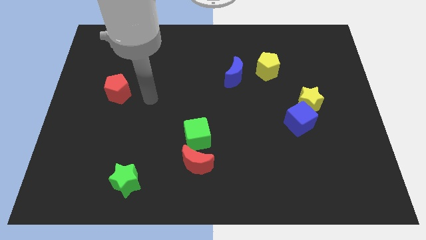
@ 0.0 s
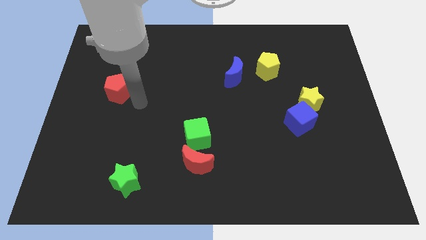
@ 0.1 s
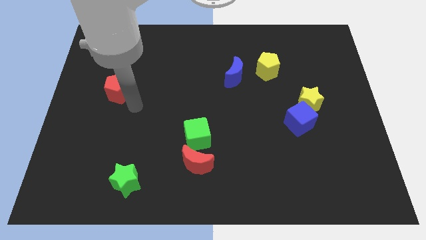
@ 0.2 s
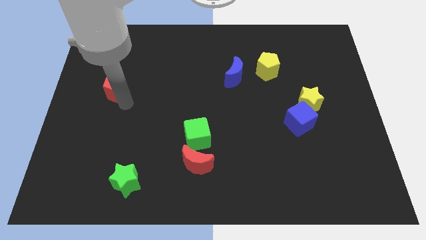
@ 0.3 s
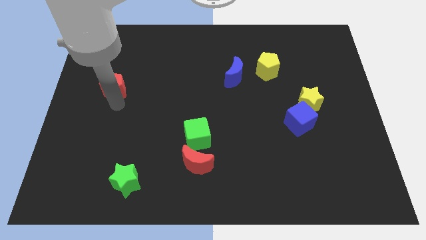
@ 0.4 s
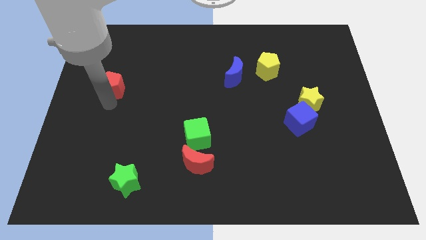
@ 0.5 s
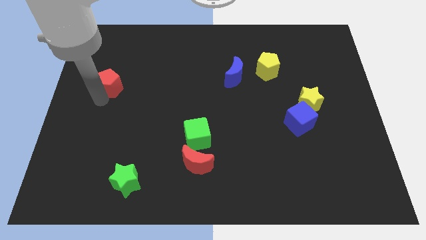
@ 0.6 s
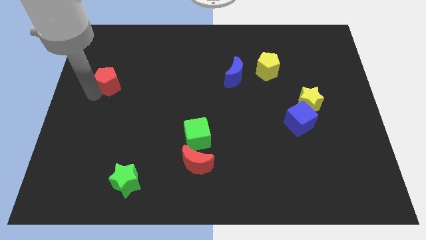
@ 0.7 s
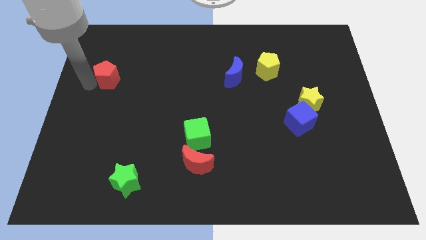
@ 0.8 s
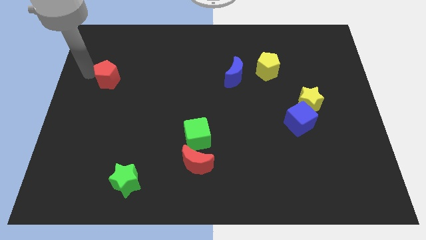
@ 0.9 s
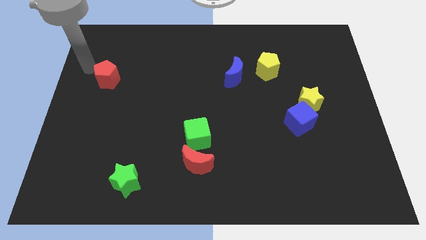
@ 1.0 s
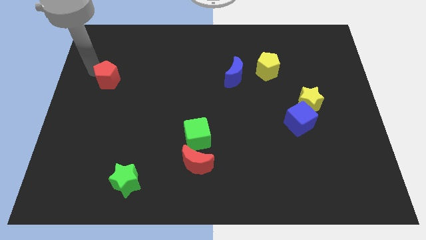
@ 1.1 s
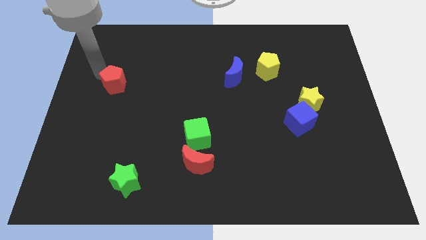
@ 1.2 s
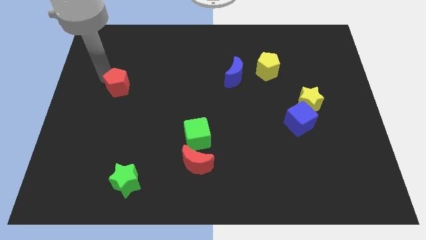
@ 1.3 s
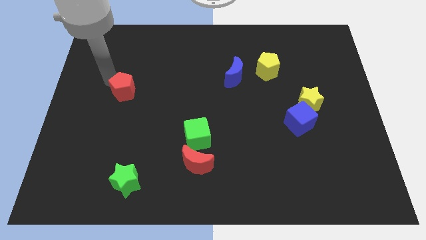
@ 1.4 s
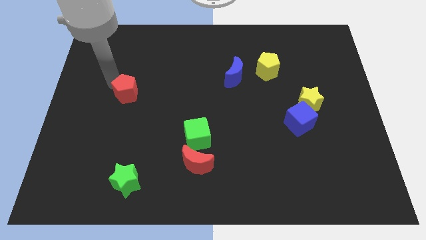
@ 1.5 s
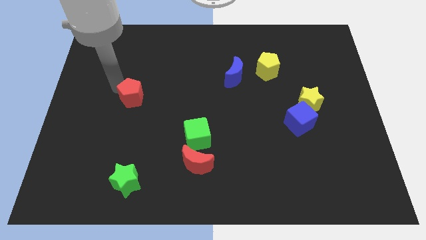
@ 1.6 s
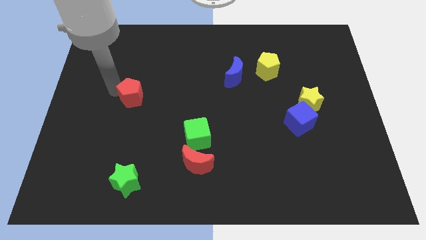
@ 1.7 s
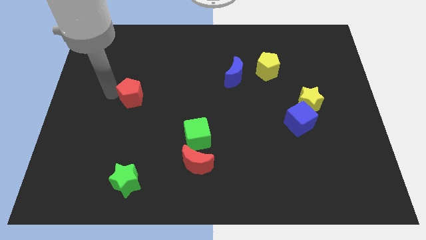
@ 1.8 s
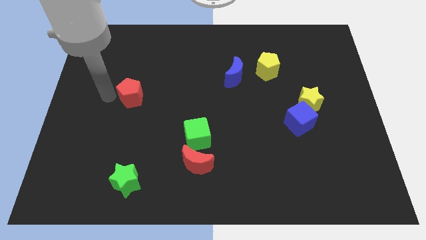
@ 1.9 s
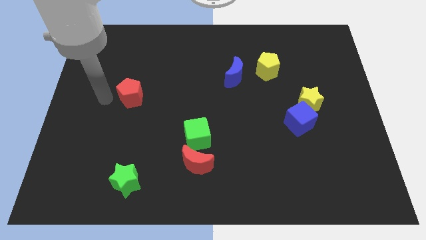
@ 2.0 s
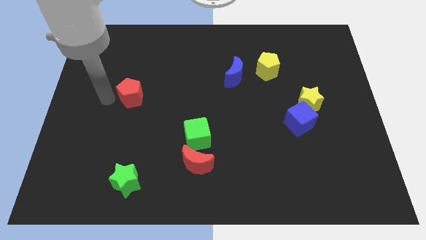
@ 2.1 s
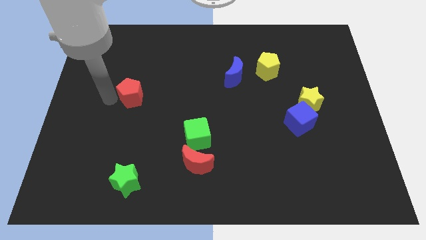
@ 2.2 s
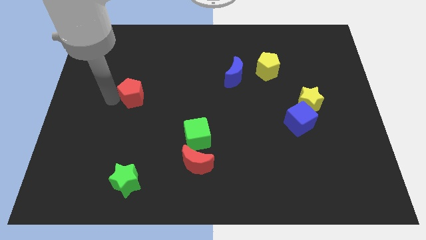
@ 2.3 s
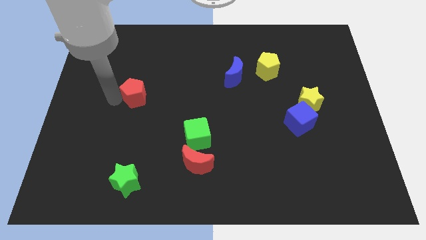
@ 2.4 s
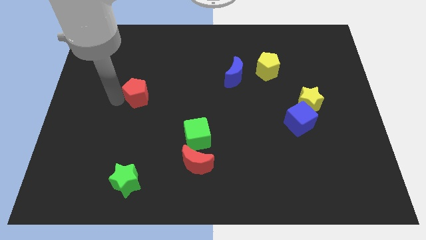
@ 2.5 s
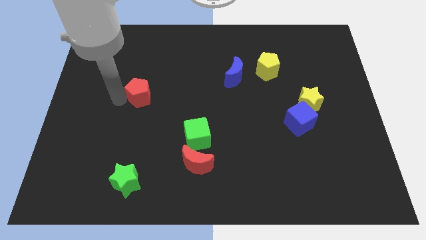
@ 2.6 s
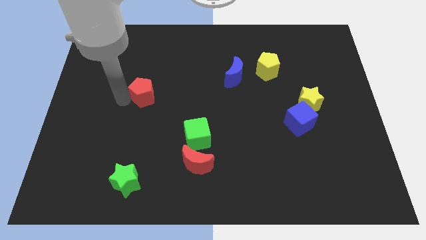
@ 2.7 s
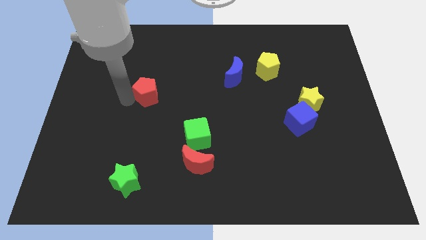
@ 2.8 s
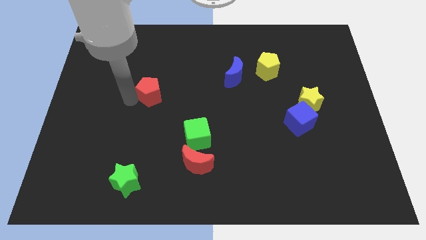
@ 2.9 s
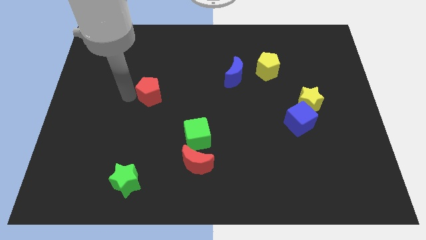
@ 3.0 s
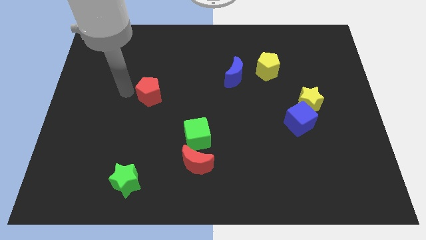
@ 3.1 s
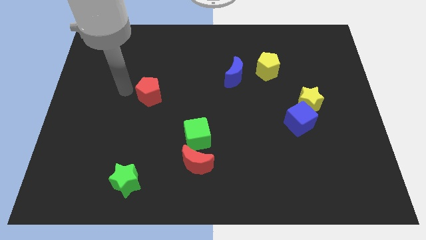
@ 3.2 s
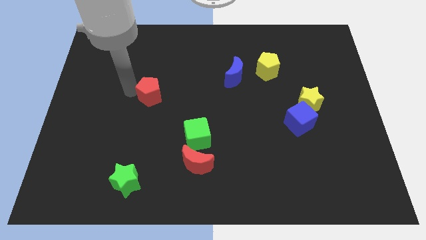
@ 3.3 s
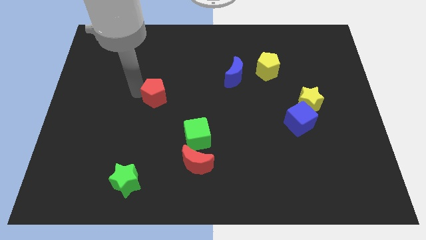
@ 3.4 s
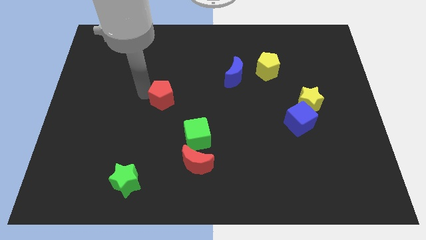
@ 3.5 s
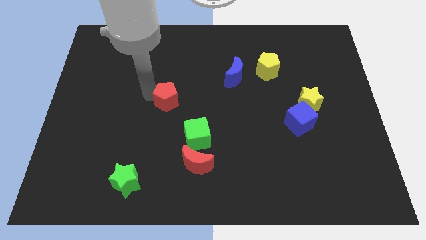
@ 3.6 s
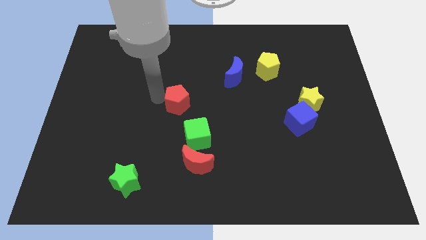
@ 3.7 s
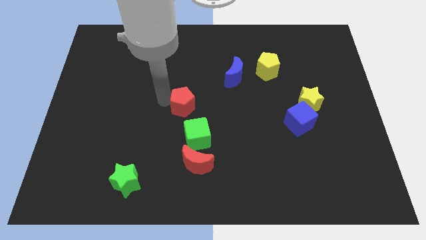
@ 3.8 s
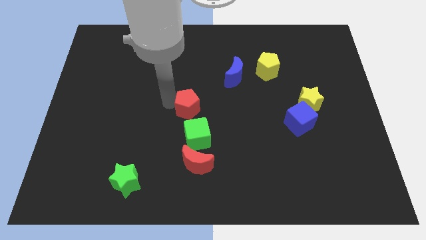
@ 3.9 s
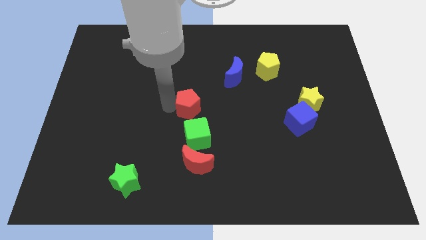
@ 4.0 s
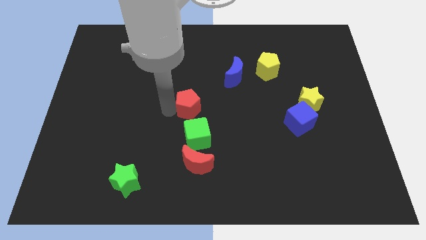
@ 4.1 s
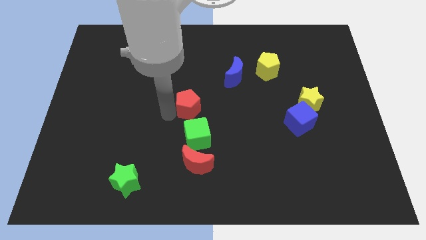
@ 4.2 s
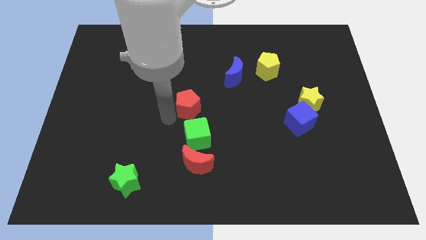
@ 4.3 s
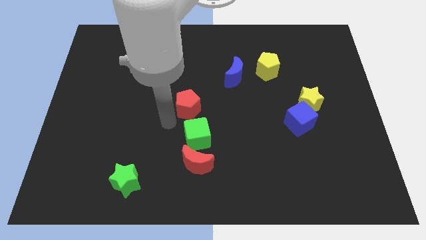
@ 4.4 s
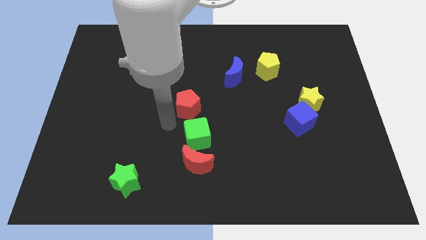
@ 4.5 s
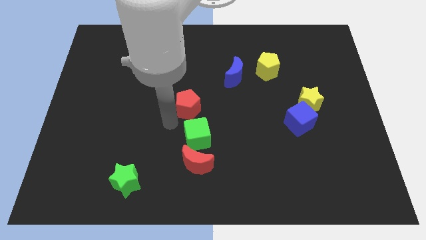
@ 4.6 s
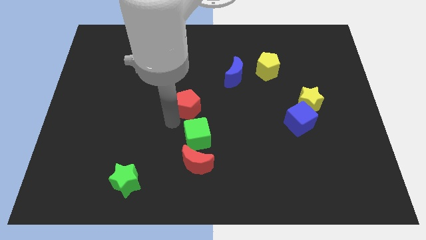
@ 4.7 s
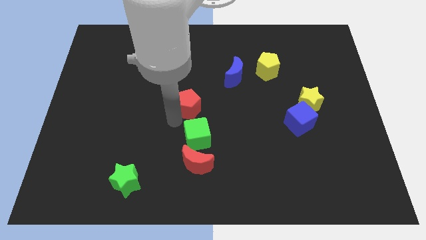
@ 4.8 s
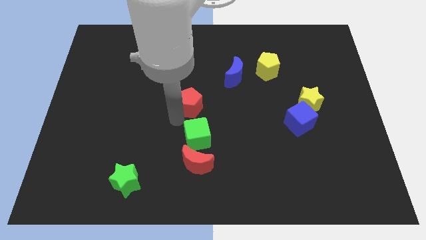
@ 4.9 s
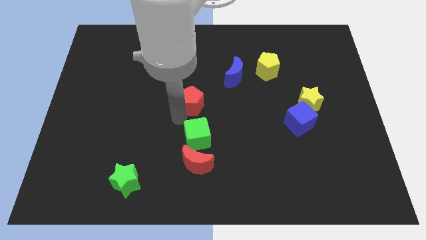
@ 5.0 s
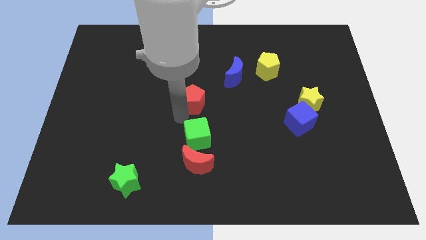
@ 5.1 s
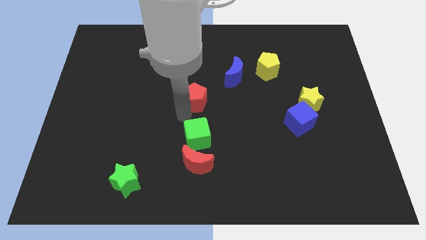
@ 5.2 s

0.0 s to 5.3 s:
move the red pentagon to the bottom left of the blue moon
